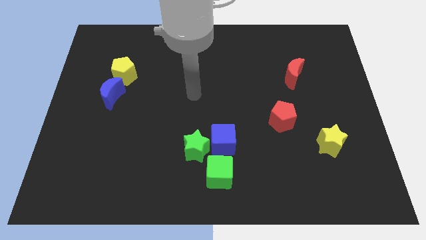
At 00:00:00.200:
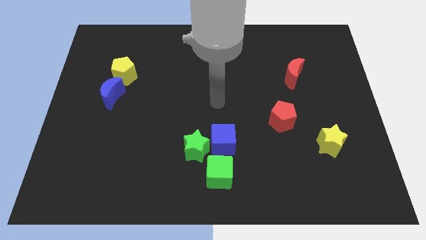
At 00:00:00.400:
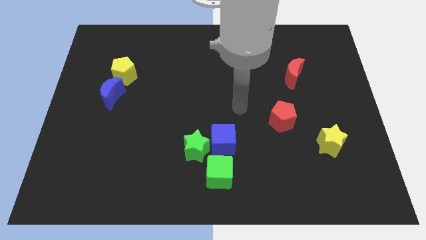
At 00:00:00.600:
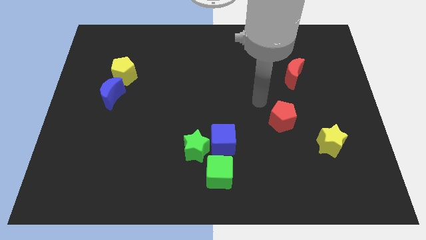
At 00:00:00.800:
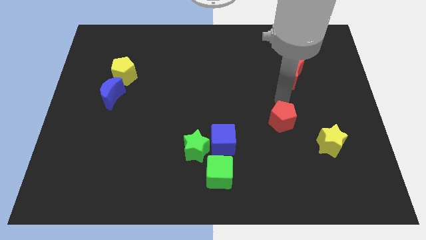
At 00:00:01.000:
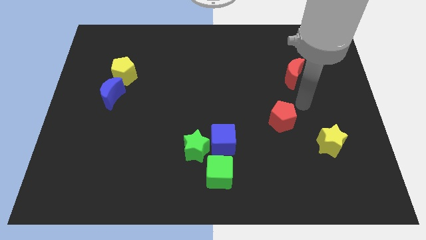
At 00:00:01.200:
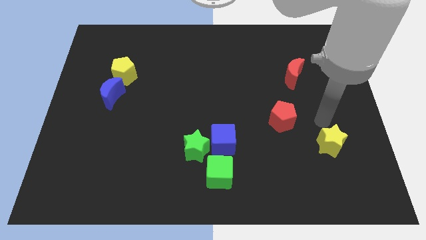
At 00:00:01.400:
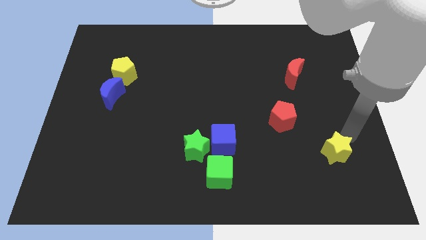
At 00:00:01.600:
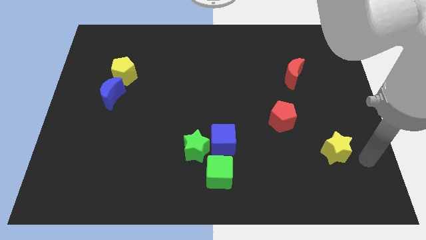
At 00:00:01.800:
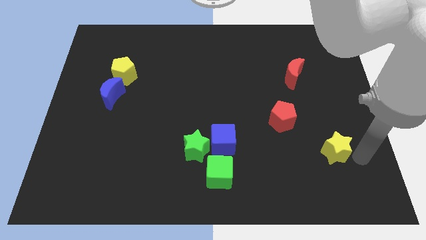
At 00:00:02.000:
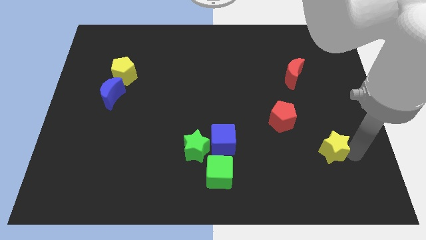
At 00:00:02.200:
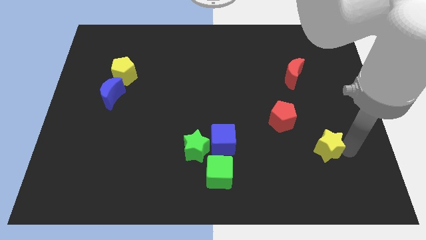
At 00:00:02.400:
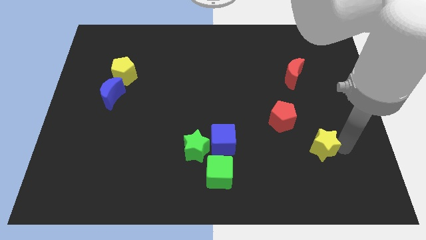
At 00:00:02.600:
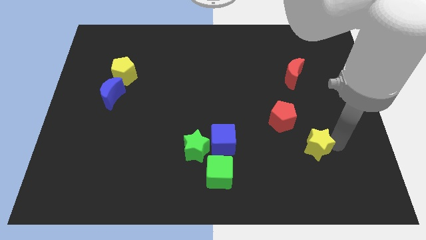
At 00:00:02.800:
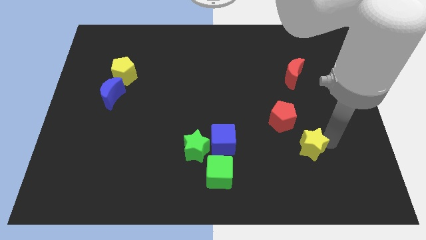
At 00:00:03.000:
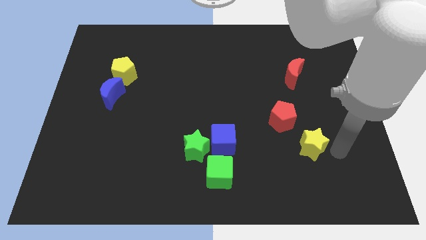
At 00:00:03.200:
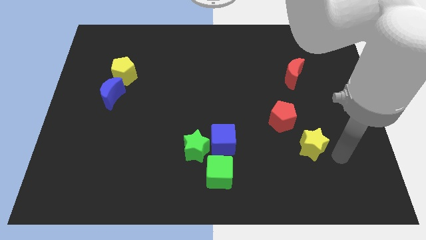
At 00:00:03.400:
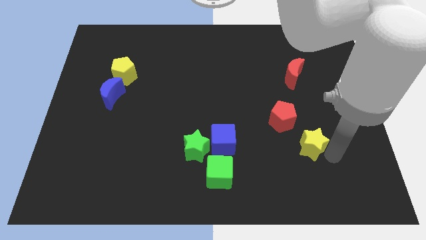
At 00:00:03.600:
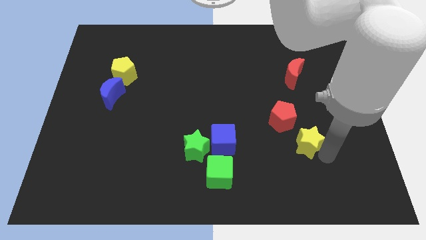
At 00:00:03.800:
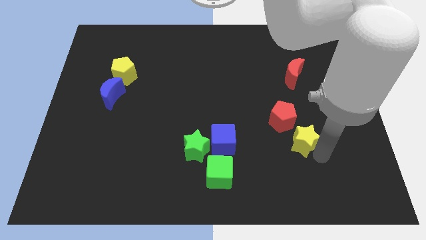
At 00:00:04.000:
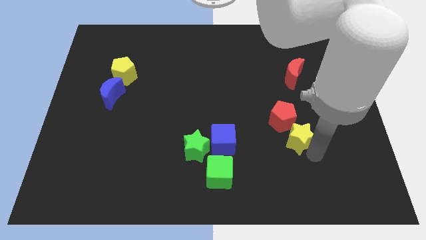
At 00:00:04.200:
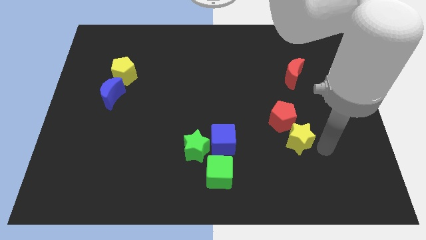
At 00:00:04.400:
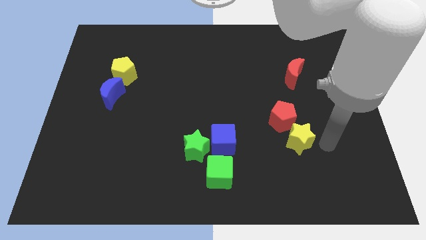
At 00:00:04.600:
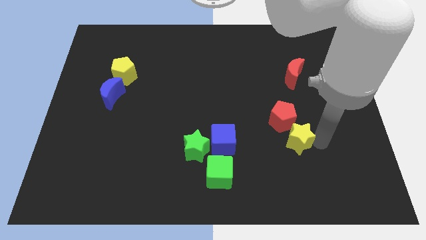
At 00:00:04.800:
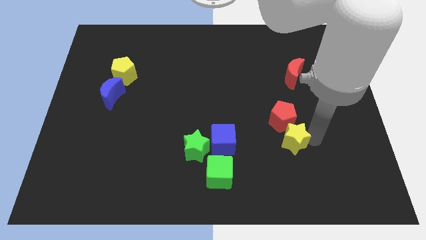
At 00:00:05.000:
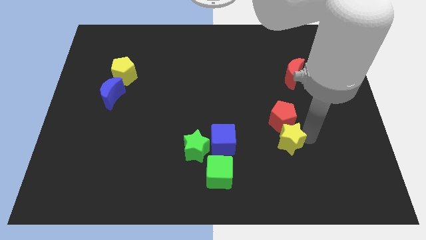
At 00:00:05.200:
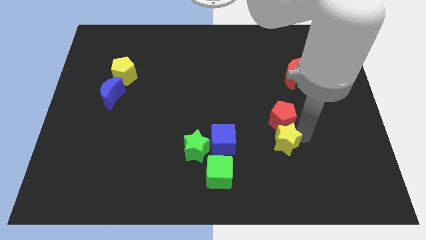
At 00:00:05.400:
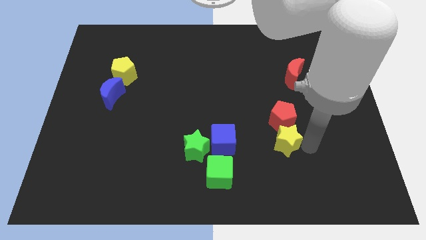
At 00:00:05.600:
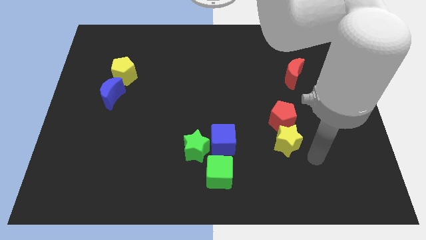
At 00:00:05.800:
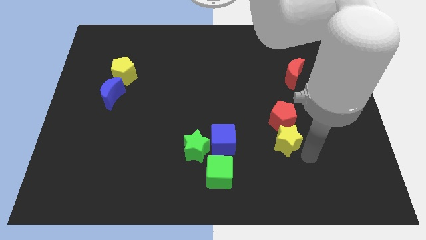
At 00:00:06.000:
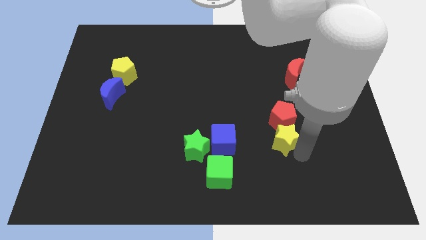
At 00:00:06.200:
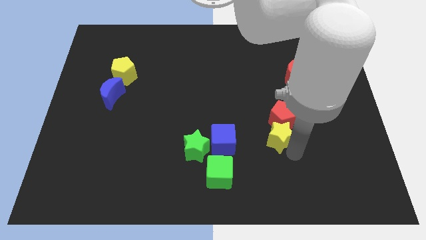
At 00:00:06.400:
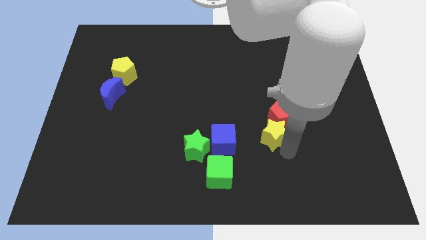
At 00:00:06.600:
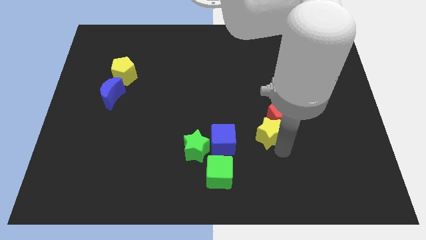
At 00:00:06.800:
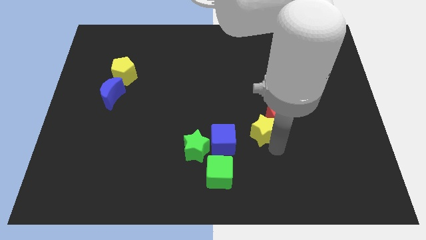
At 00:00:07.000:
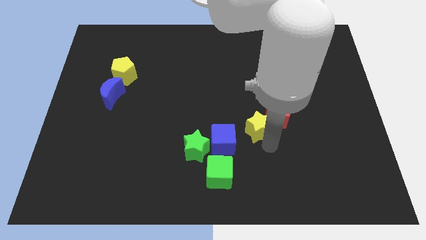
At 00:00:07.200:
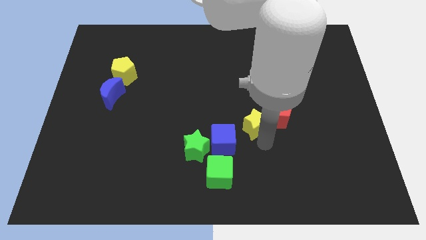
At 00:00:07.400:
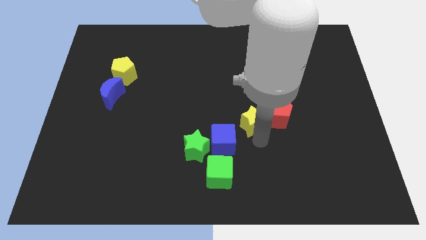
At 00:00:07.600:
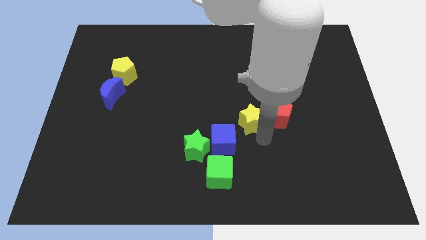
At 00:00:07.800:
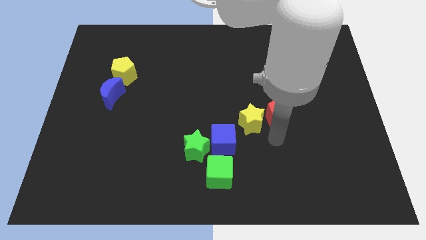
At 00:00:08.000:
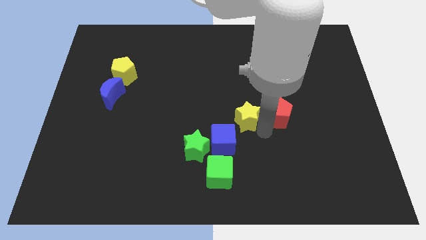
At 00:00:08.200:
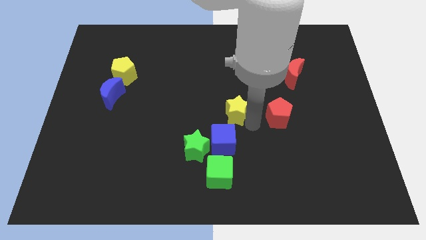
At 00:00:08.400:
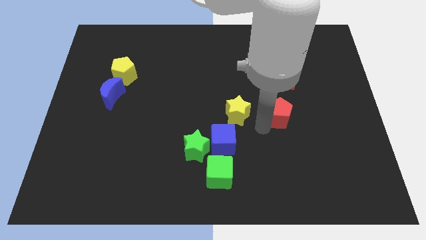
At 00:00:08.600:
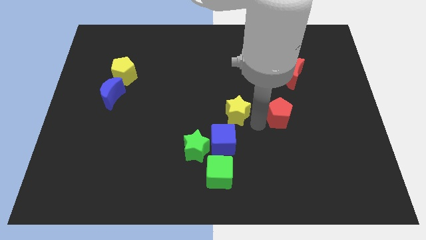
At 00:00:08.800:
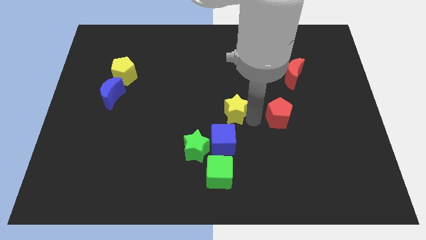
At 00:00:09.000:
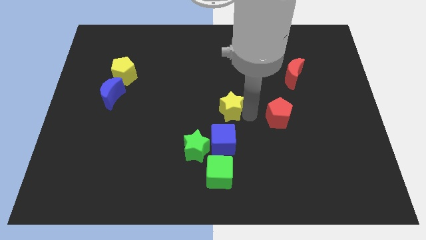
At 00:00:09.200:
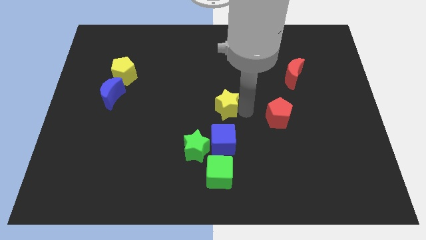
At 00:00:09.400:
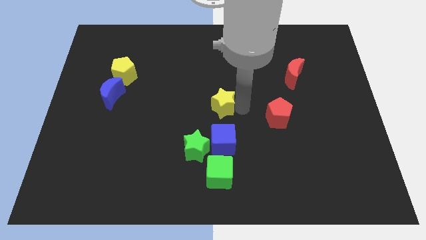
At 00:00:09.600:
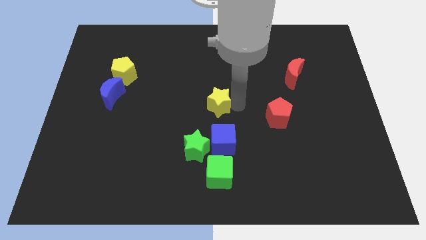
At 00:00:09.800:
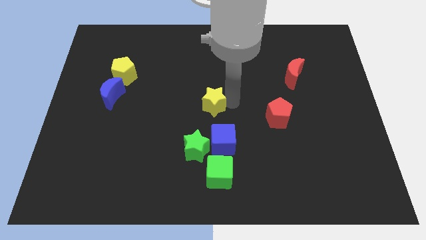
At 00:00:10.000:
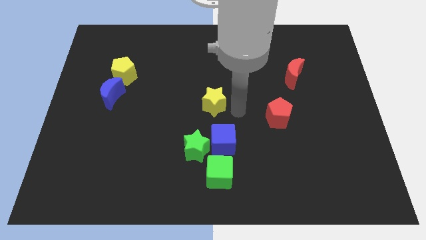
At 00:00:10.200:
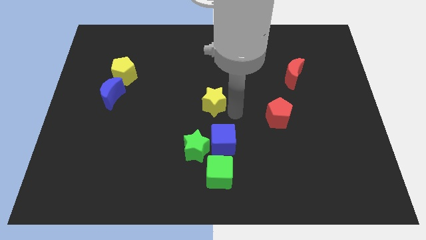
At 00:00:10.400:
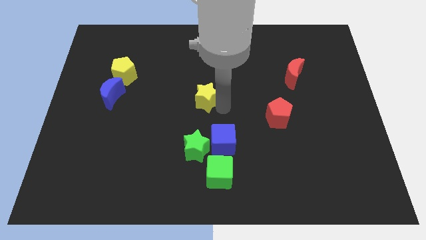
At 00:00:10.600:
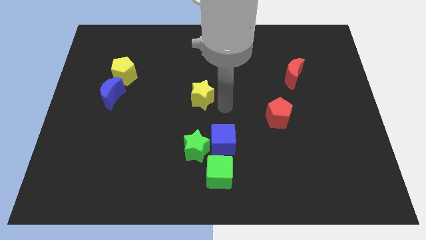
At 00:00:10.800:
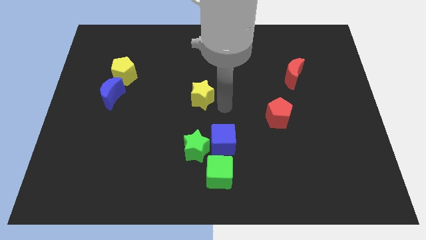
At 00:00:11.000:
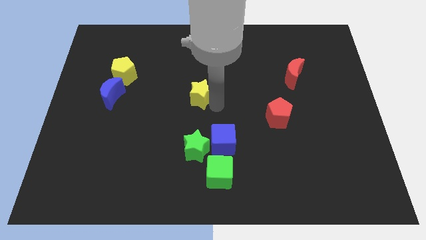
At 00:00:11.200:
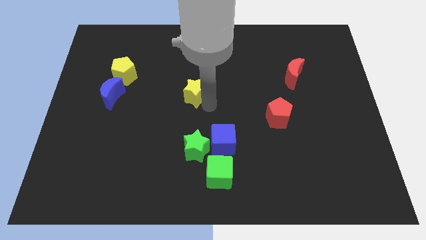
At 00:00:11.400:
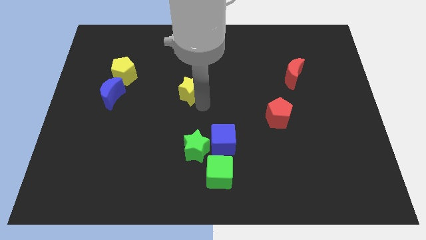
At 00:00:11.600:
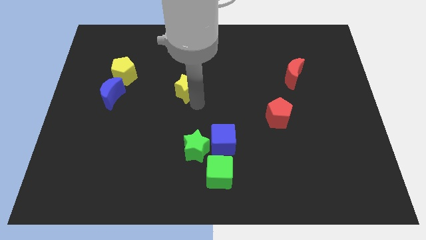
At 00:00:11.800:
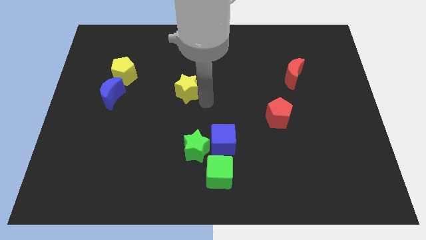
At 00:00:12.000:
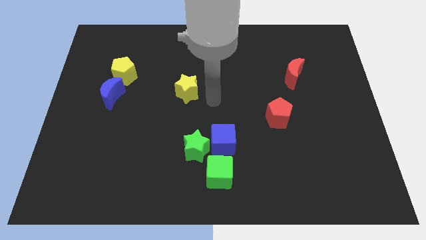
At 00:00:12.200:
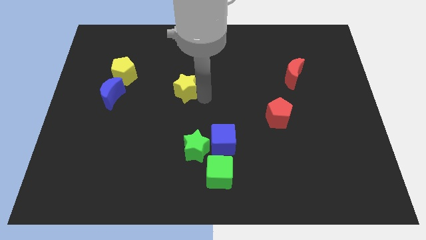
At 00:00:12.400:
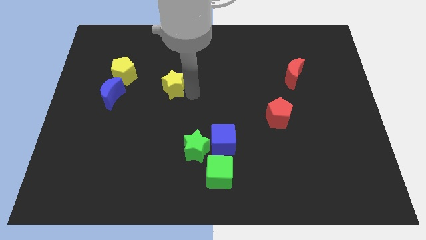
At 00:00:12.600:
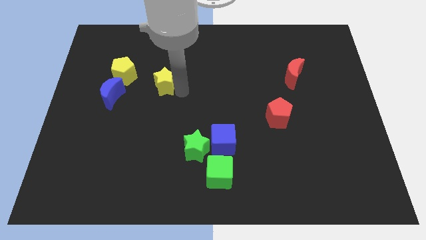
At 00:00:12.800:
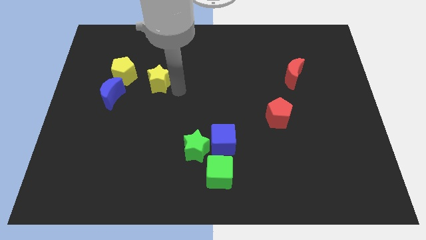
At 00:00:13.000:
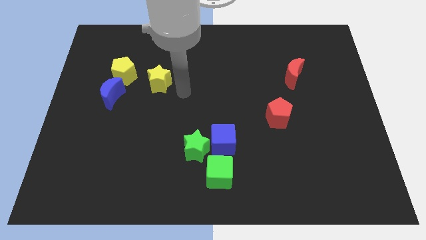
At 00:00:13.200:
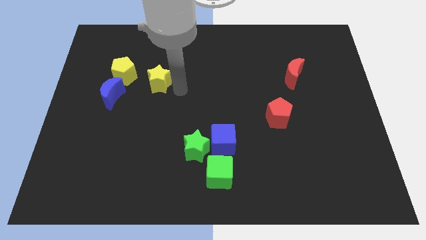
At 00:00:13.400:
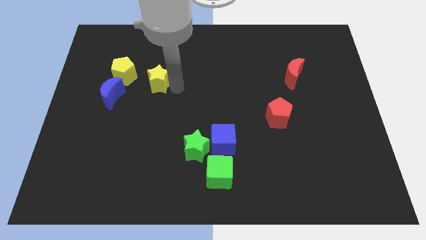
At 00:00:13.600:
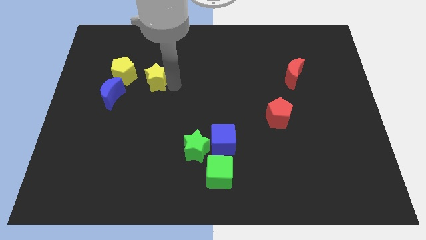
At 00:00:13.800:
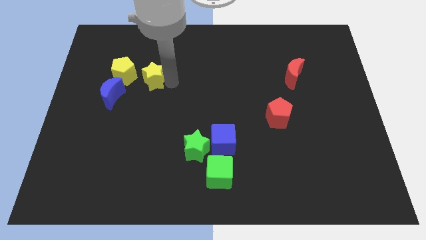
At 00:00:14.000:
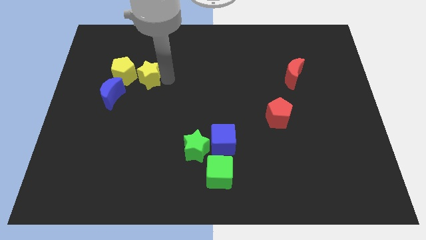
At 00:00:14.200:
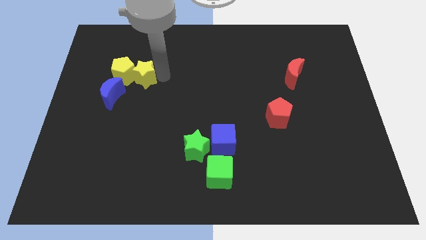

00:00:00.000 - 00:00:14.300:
move the yellow star towards the yellow pentagon
